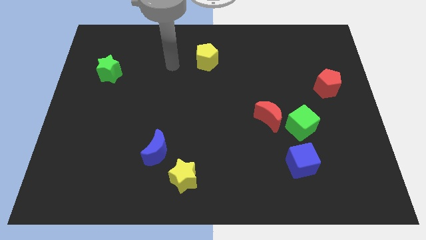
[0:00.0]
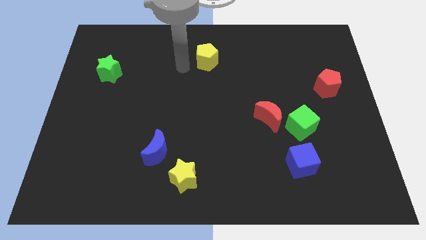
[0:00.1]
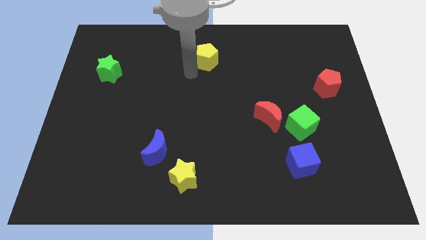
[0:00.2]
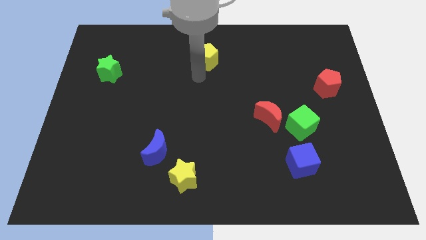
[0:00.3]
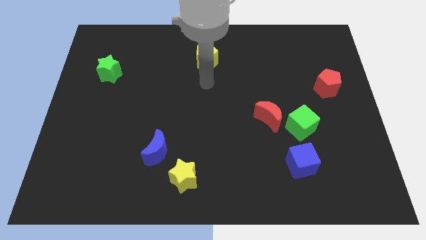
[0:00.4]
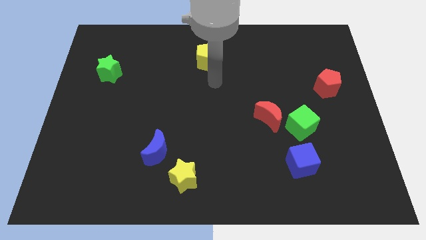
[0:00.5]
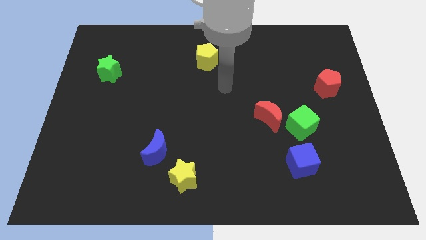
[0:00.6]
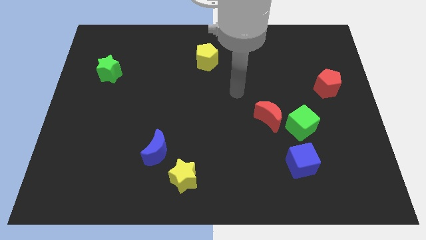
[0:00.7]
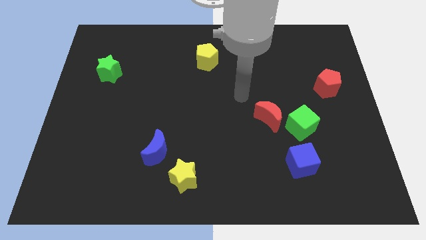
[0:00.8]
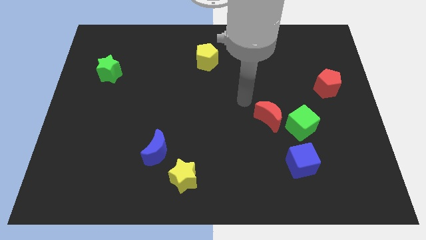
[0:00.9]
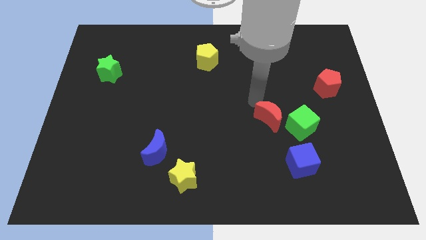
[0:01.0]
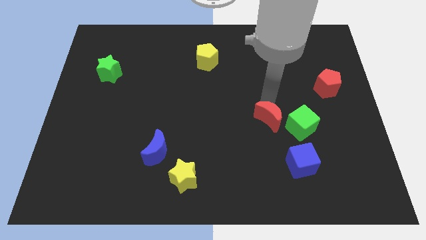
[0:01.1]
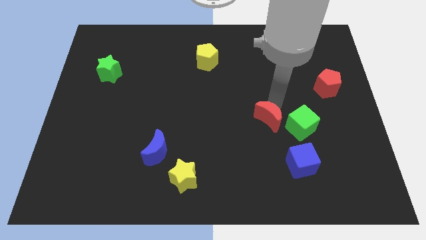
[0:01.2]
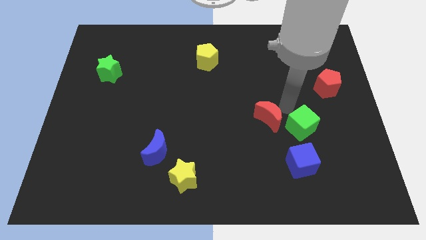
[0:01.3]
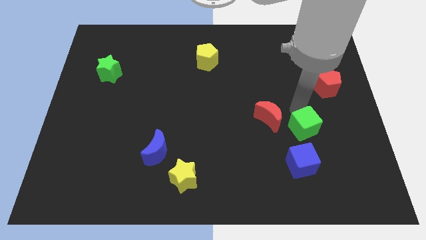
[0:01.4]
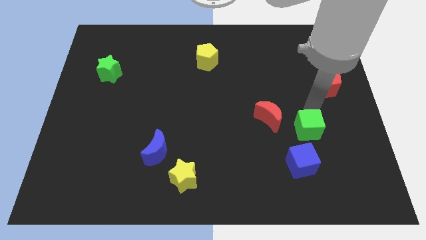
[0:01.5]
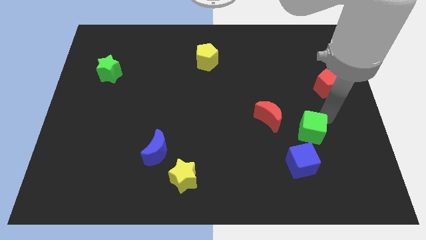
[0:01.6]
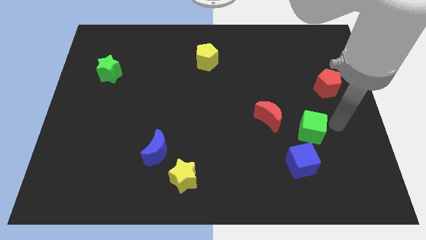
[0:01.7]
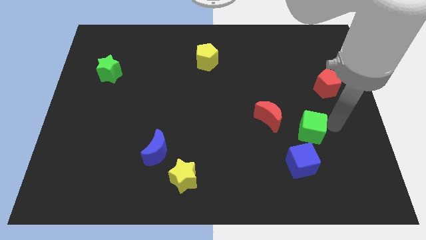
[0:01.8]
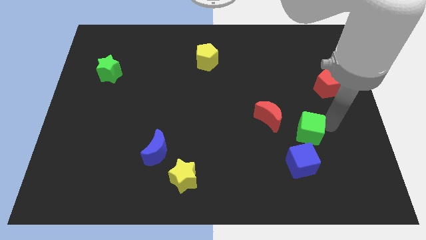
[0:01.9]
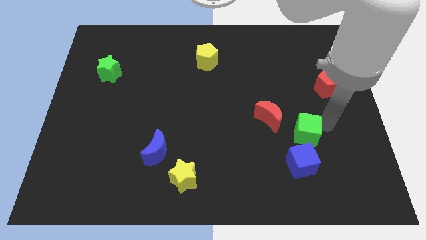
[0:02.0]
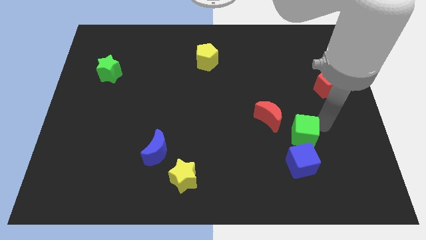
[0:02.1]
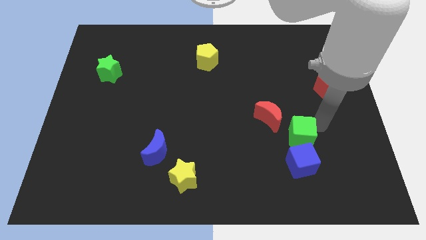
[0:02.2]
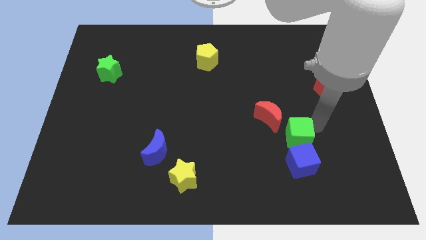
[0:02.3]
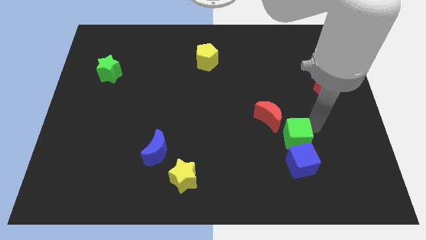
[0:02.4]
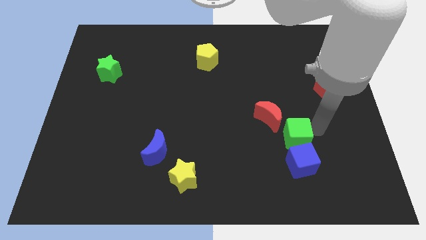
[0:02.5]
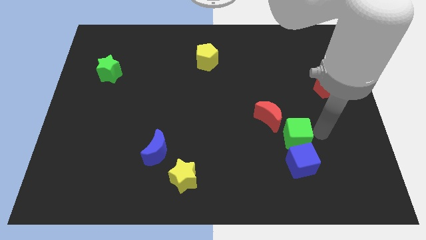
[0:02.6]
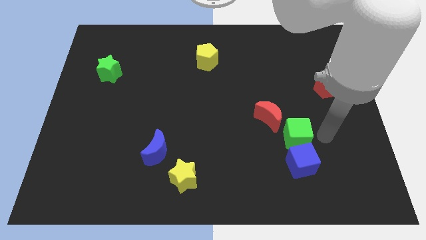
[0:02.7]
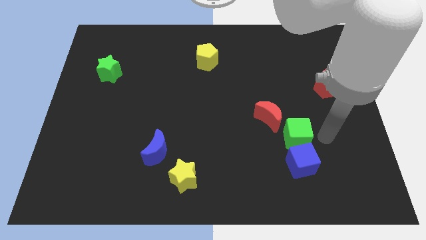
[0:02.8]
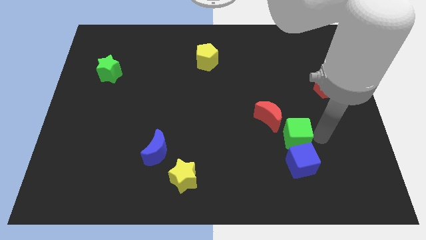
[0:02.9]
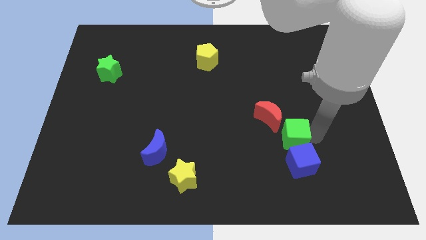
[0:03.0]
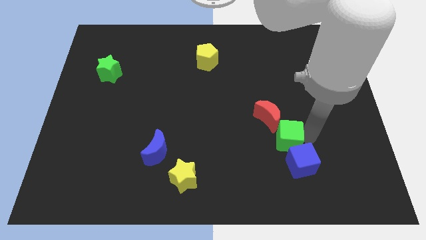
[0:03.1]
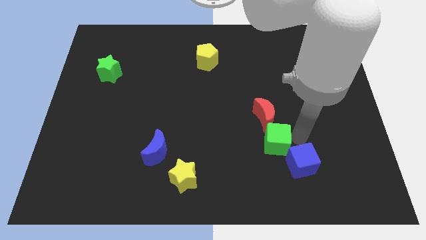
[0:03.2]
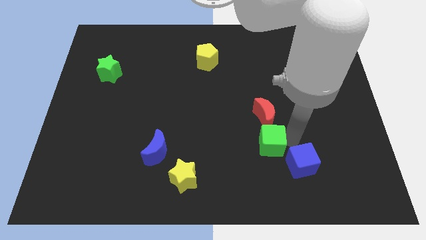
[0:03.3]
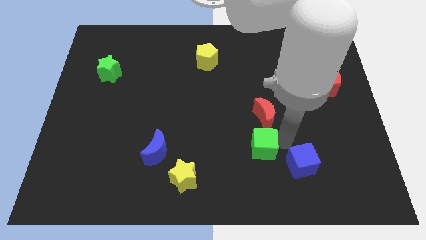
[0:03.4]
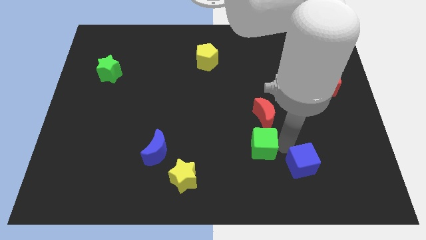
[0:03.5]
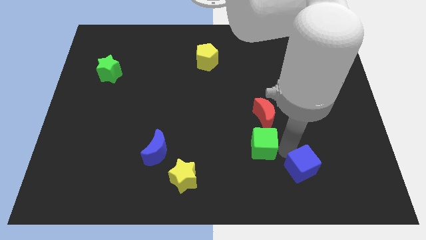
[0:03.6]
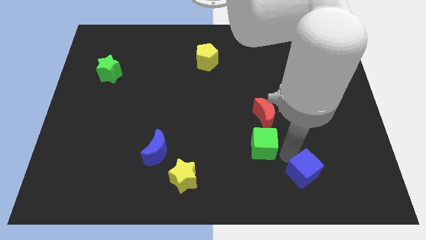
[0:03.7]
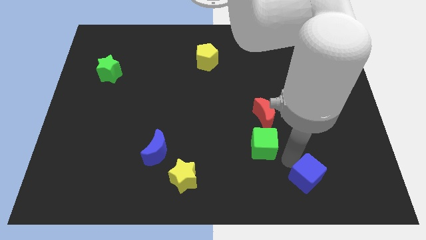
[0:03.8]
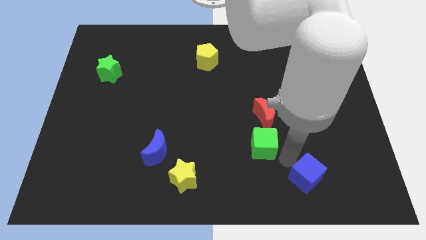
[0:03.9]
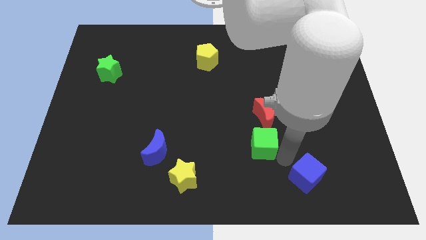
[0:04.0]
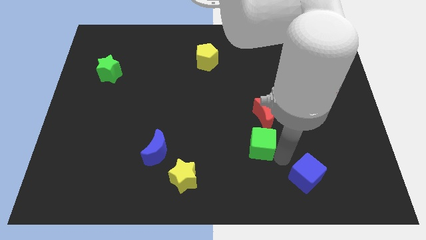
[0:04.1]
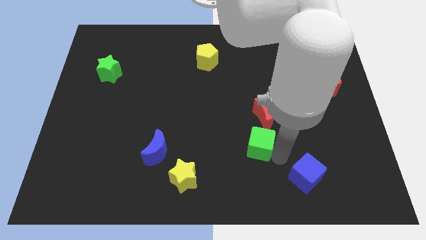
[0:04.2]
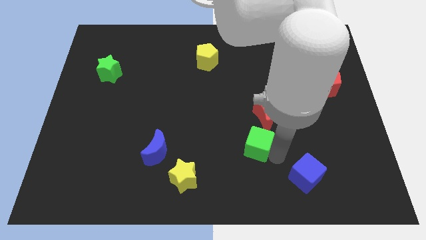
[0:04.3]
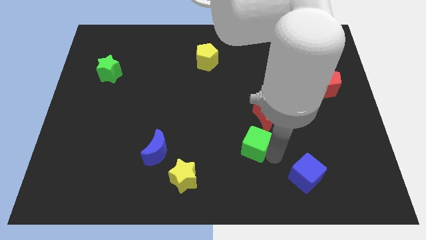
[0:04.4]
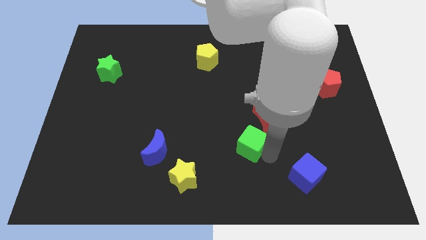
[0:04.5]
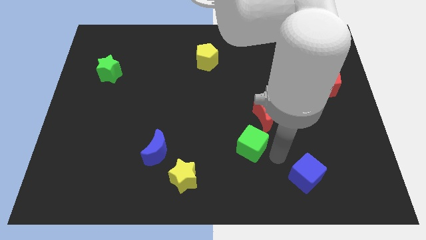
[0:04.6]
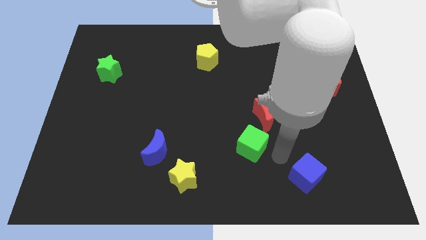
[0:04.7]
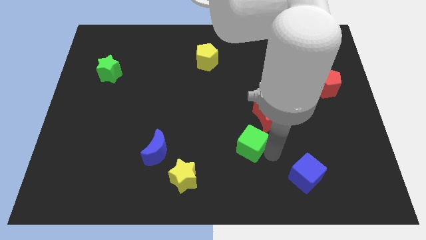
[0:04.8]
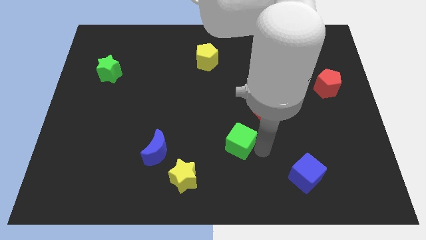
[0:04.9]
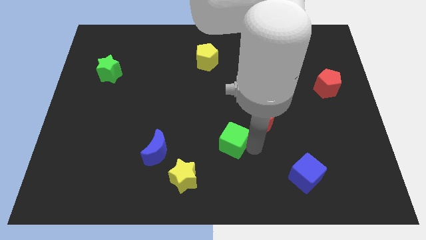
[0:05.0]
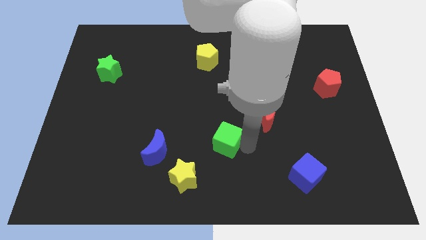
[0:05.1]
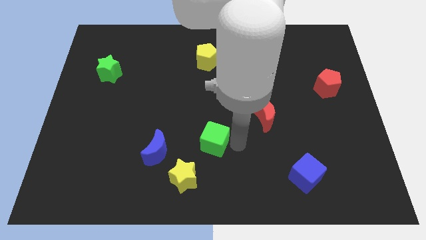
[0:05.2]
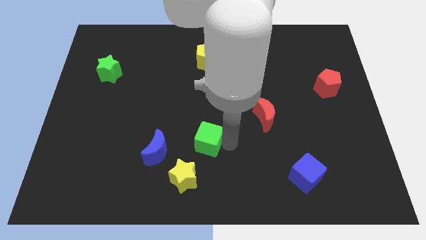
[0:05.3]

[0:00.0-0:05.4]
push the green cube left

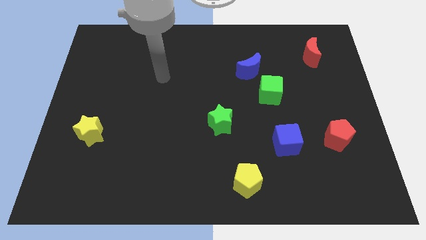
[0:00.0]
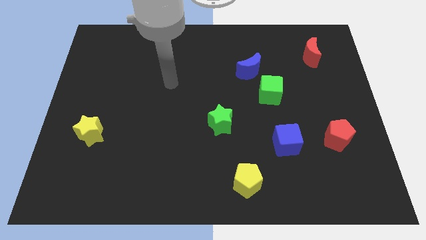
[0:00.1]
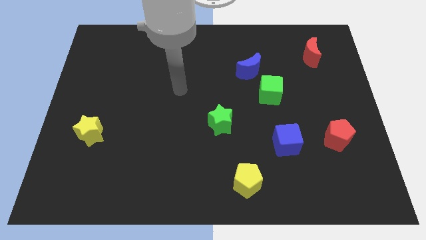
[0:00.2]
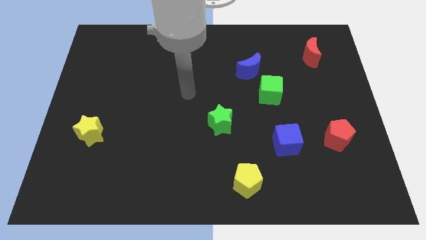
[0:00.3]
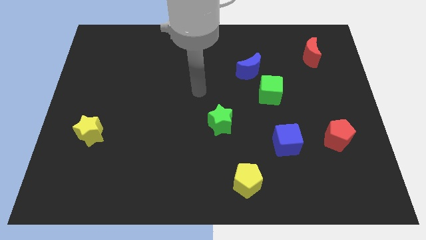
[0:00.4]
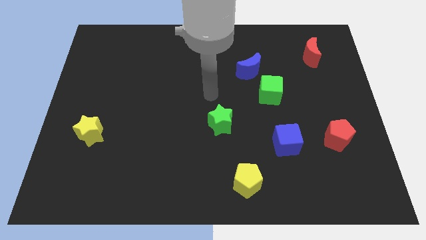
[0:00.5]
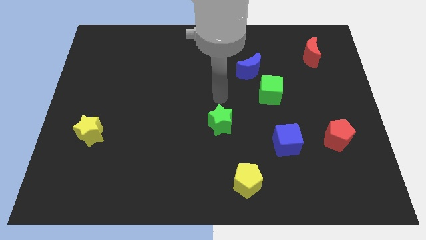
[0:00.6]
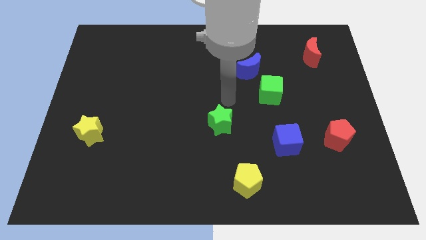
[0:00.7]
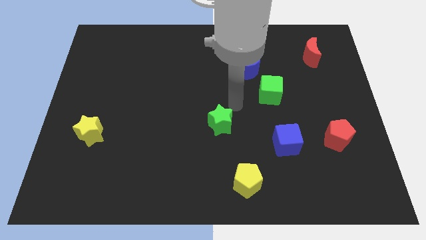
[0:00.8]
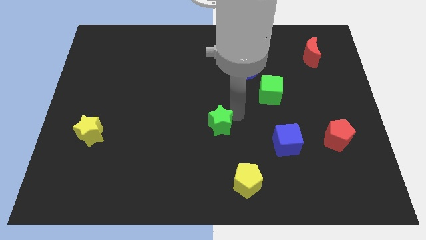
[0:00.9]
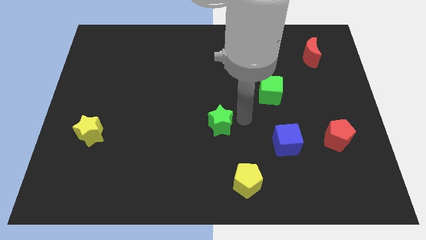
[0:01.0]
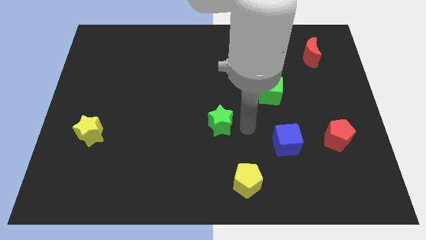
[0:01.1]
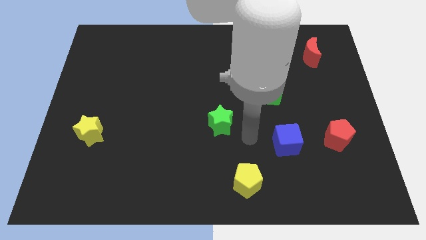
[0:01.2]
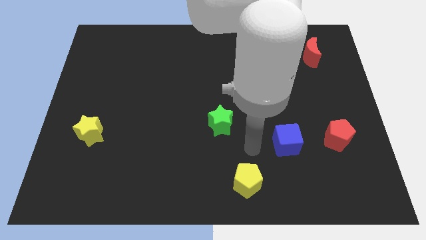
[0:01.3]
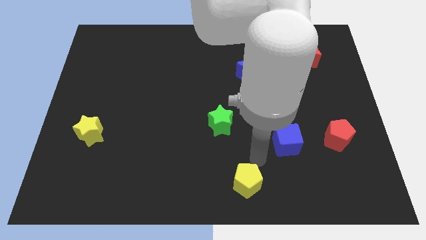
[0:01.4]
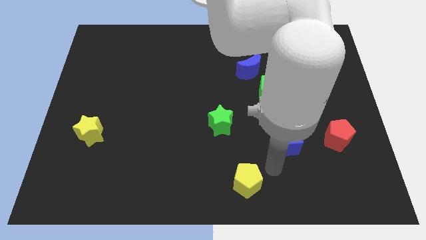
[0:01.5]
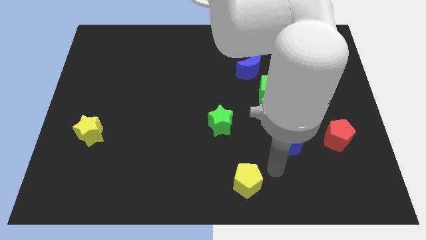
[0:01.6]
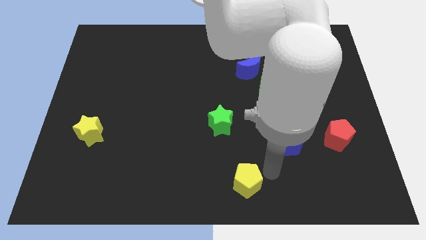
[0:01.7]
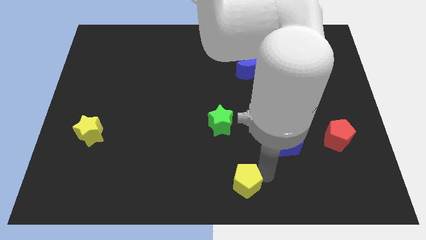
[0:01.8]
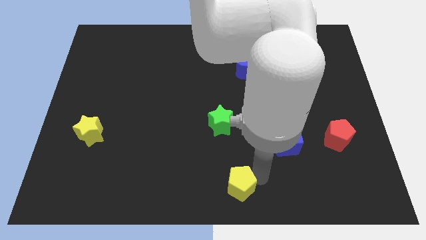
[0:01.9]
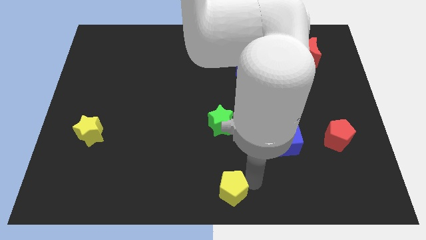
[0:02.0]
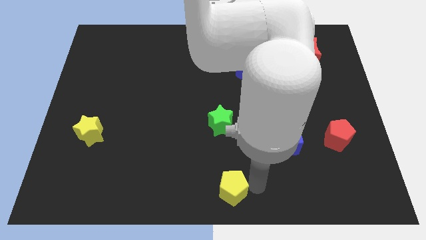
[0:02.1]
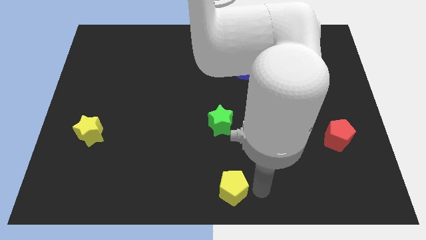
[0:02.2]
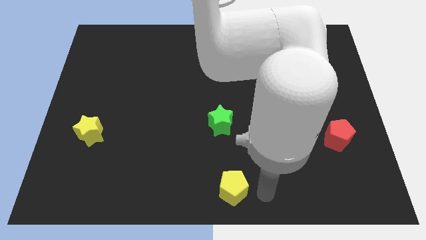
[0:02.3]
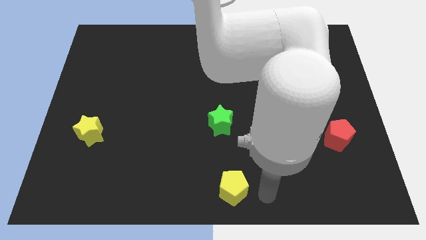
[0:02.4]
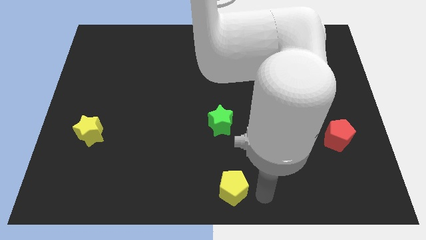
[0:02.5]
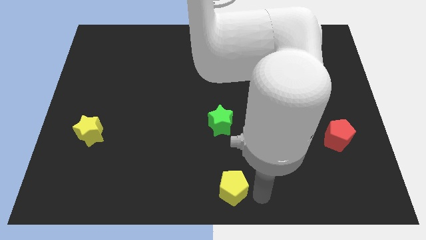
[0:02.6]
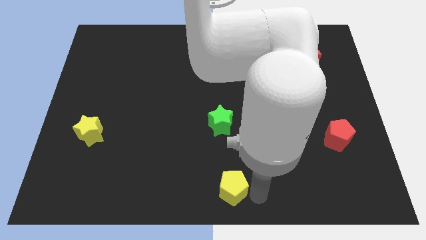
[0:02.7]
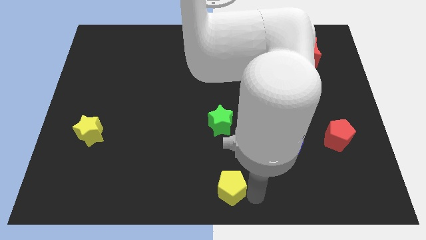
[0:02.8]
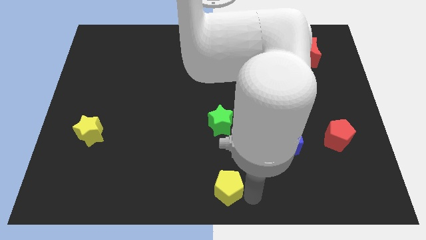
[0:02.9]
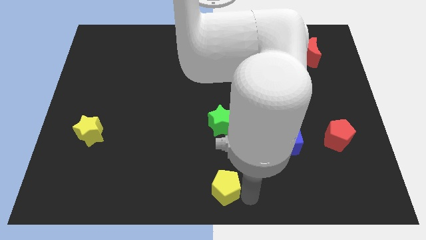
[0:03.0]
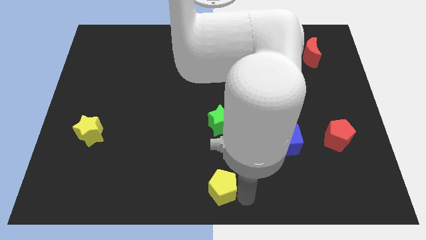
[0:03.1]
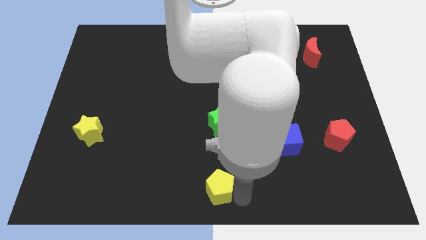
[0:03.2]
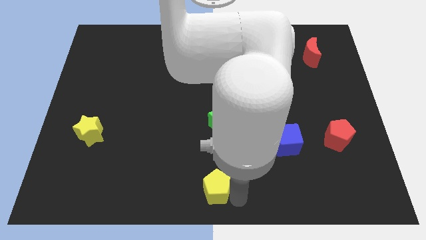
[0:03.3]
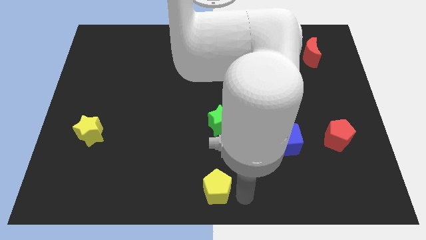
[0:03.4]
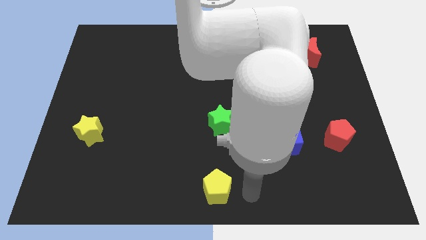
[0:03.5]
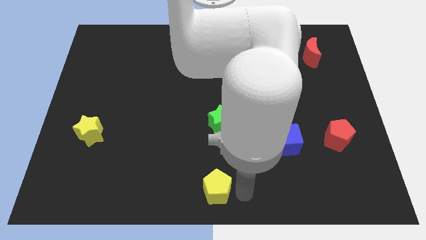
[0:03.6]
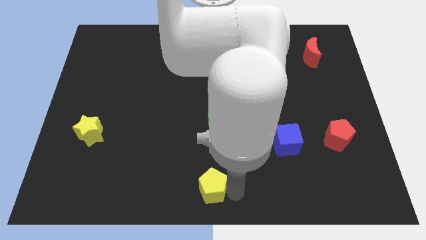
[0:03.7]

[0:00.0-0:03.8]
slightly slide the yellow pentagon left
